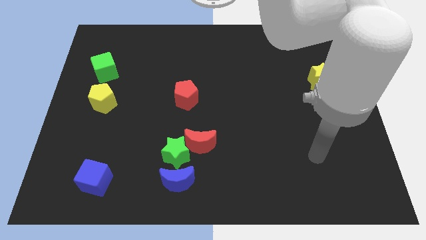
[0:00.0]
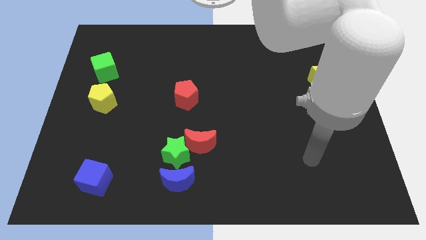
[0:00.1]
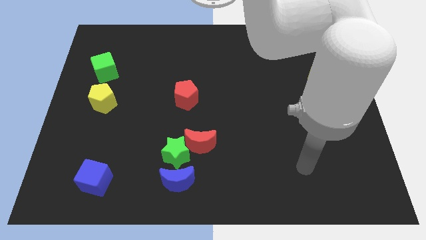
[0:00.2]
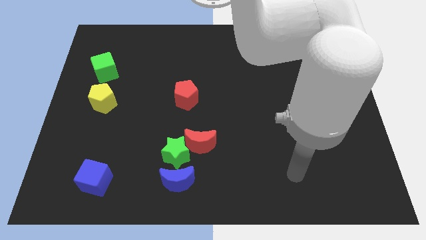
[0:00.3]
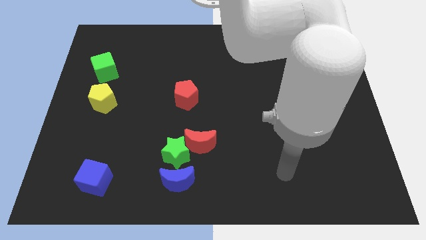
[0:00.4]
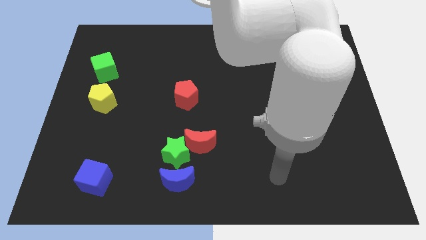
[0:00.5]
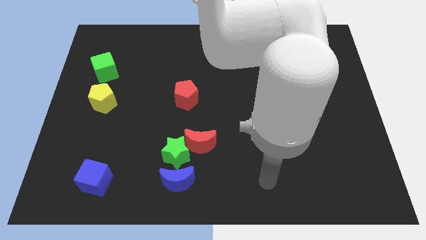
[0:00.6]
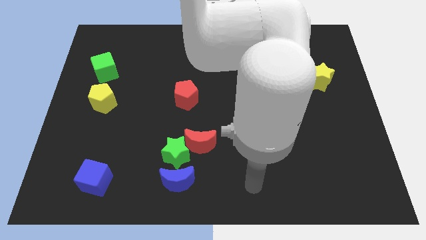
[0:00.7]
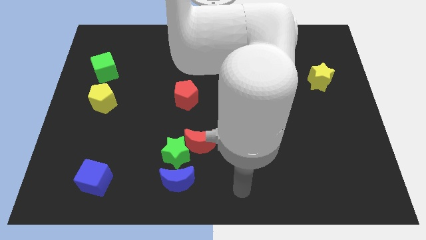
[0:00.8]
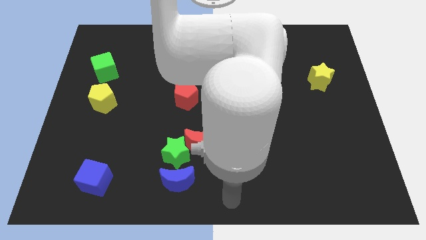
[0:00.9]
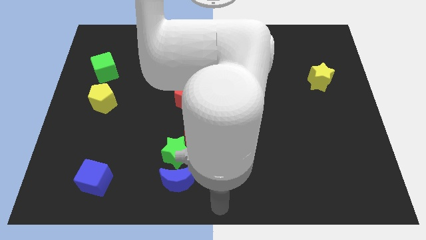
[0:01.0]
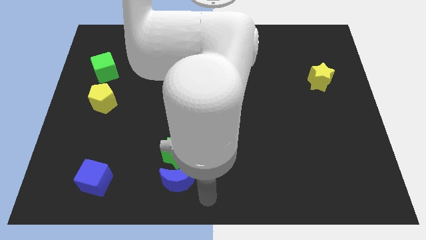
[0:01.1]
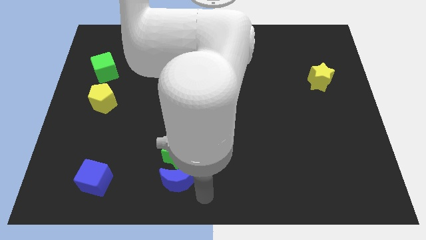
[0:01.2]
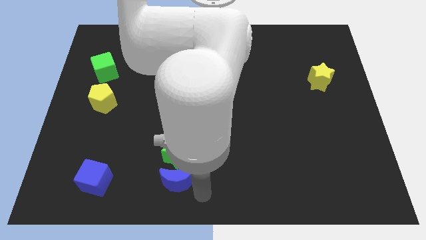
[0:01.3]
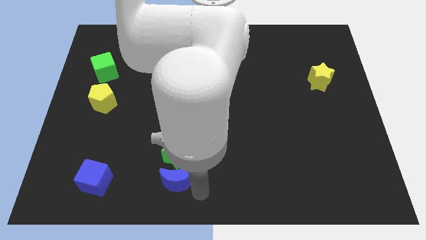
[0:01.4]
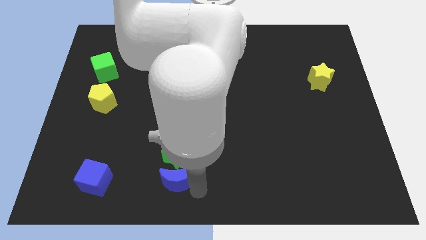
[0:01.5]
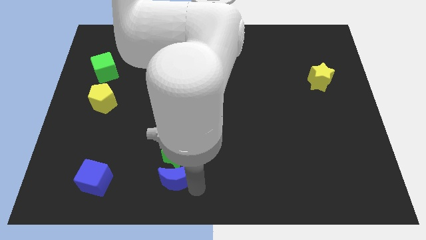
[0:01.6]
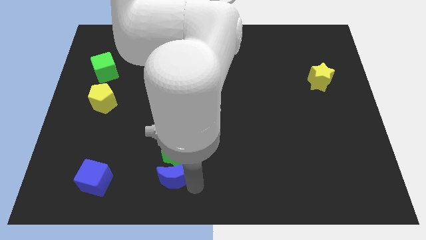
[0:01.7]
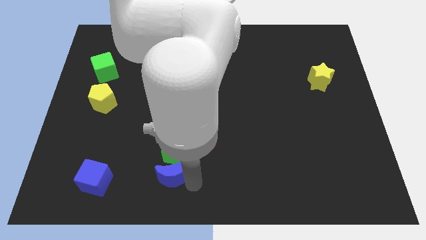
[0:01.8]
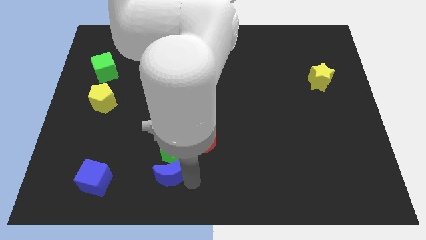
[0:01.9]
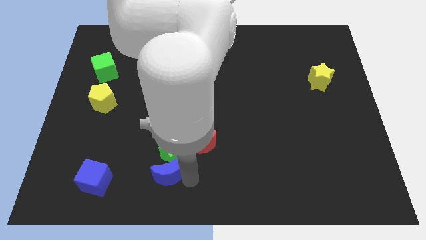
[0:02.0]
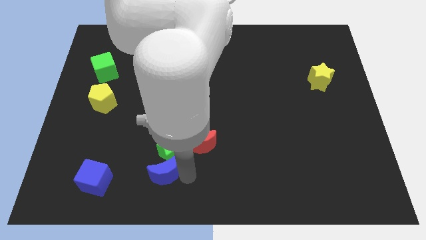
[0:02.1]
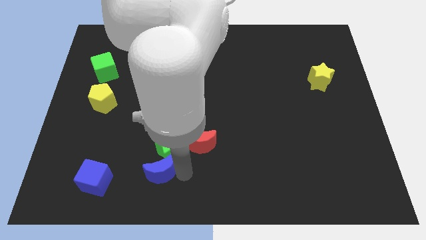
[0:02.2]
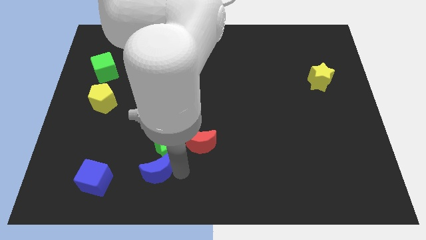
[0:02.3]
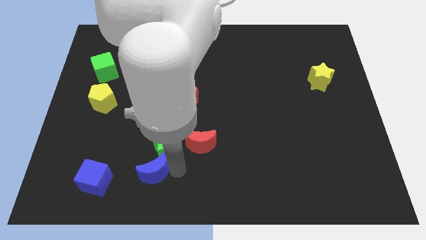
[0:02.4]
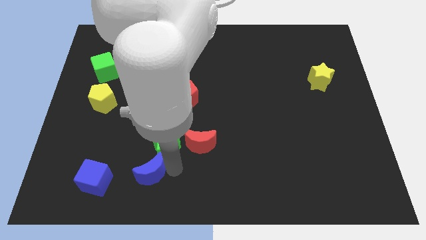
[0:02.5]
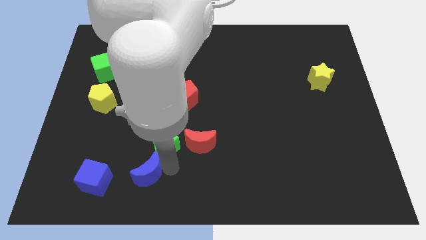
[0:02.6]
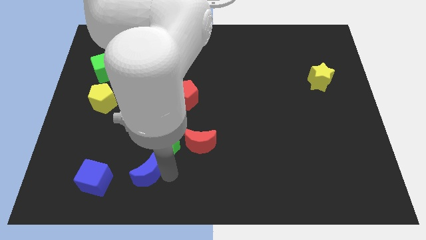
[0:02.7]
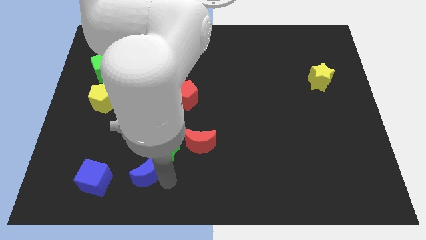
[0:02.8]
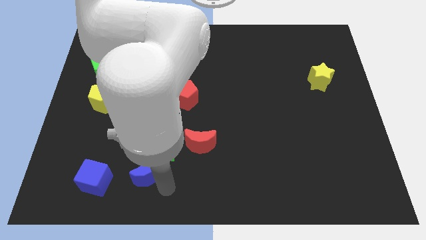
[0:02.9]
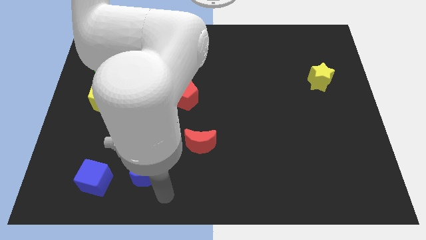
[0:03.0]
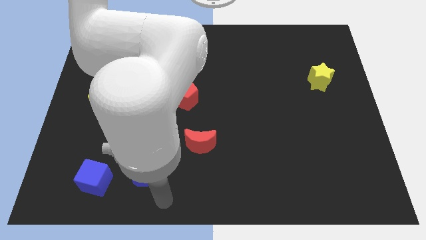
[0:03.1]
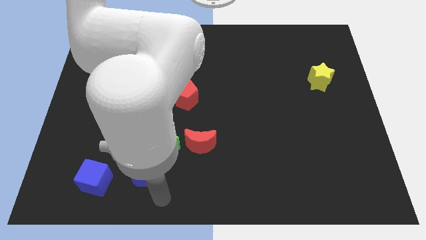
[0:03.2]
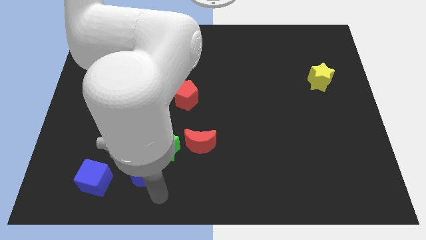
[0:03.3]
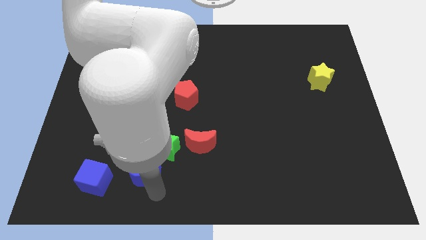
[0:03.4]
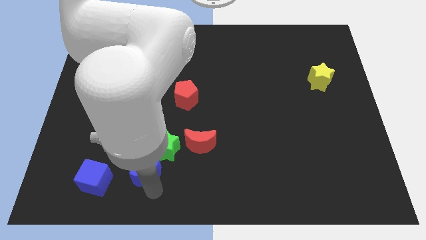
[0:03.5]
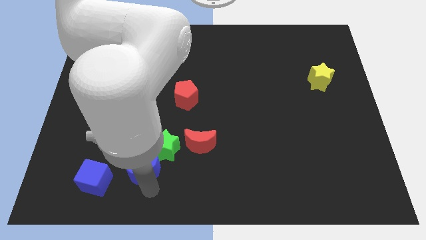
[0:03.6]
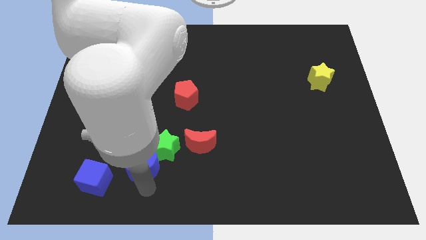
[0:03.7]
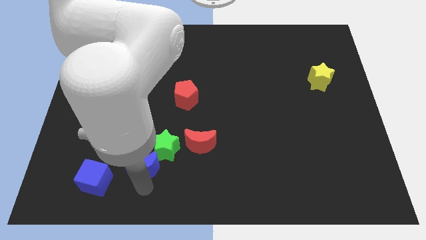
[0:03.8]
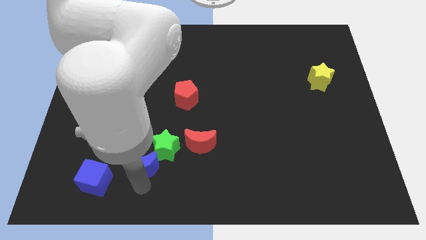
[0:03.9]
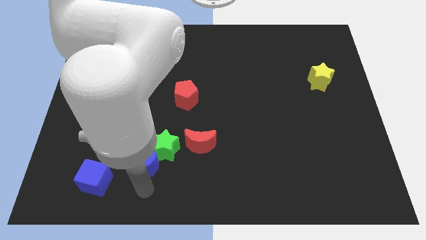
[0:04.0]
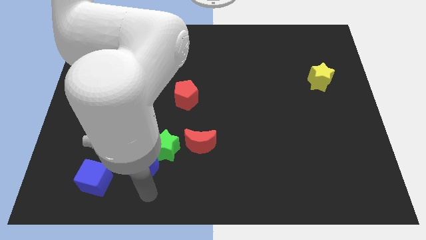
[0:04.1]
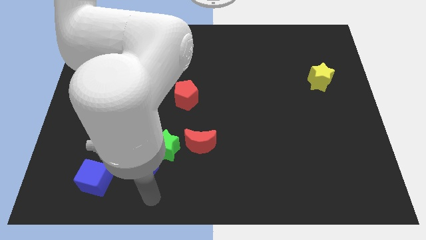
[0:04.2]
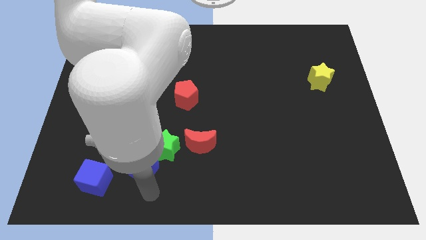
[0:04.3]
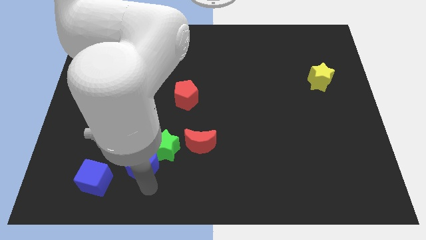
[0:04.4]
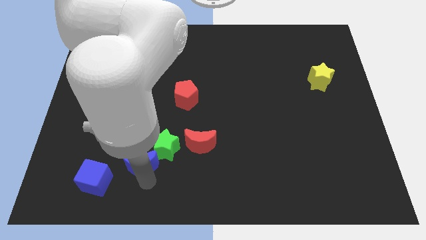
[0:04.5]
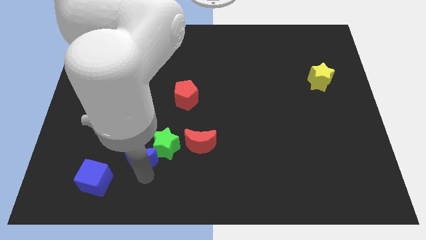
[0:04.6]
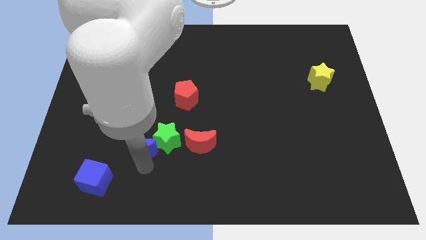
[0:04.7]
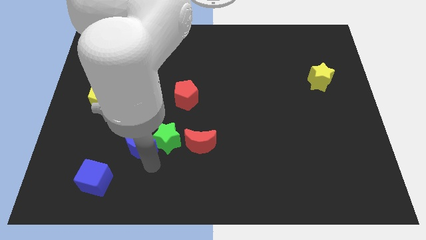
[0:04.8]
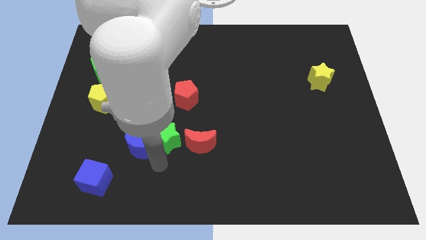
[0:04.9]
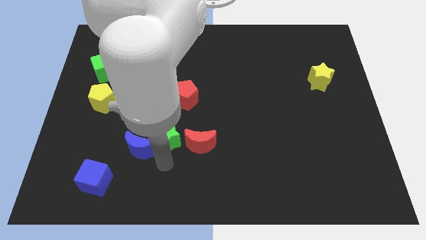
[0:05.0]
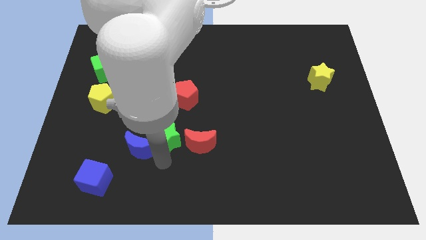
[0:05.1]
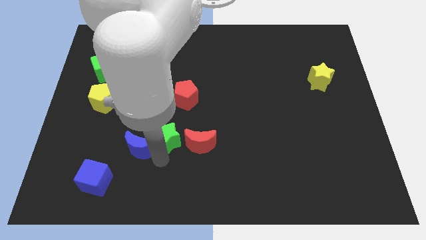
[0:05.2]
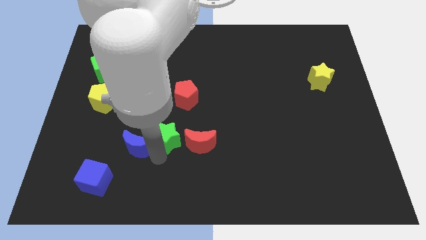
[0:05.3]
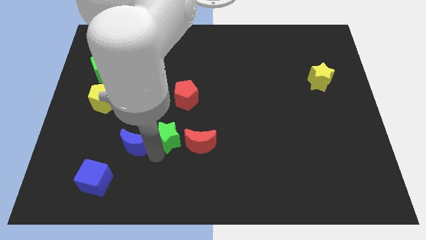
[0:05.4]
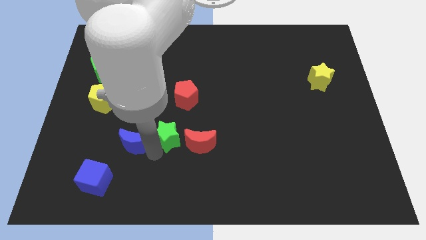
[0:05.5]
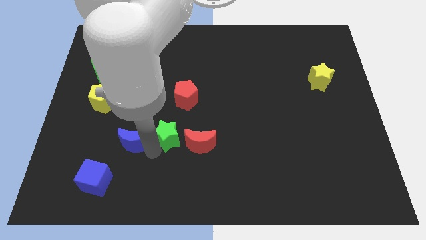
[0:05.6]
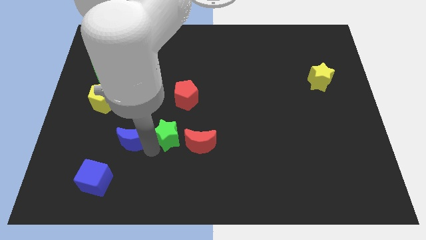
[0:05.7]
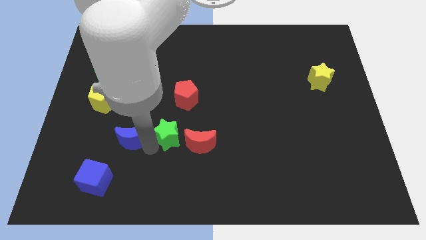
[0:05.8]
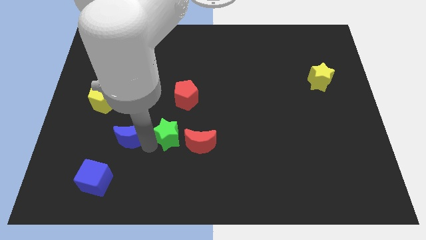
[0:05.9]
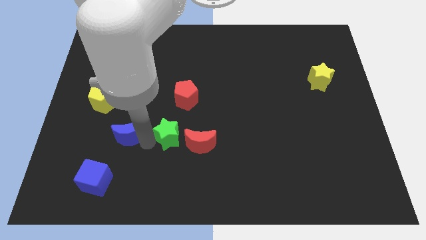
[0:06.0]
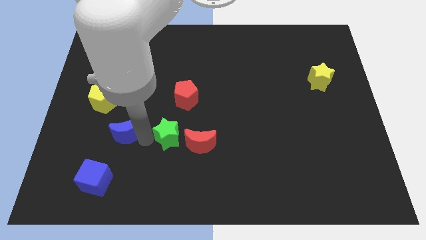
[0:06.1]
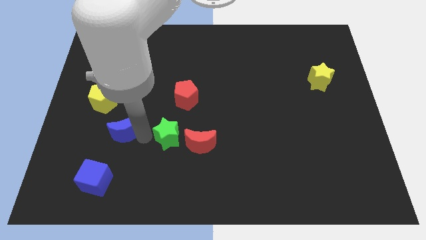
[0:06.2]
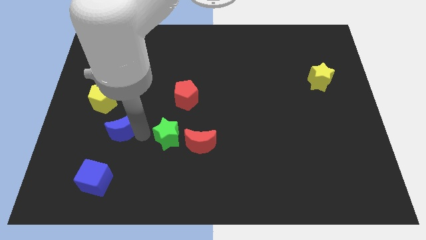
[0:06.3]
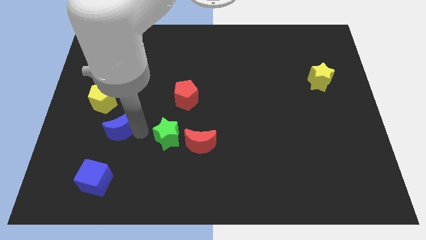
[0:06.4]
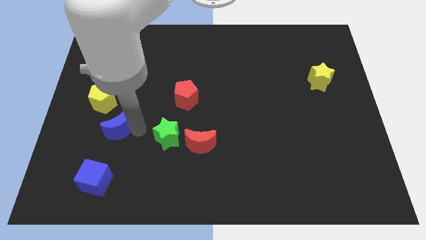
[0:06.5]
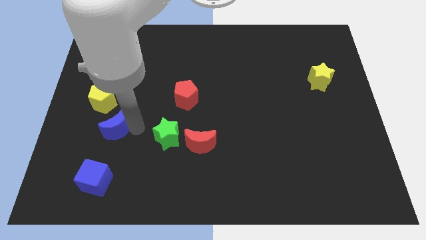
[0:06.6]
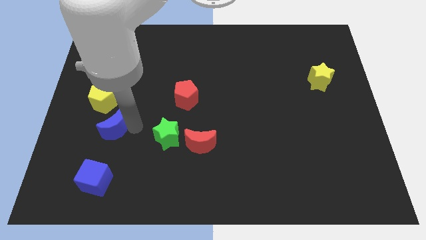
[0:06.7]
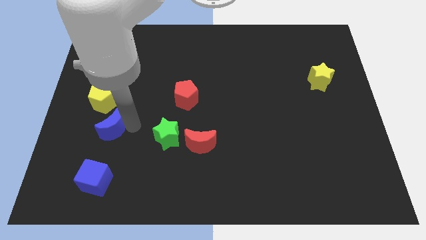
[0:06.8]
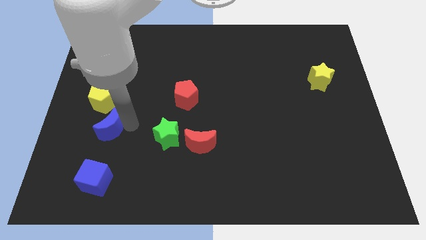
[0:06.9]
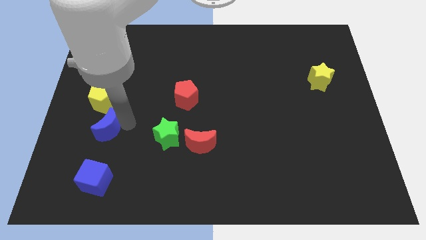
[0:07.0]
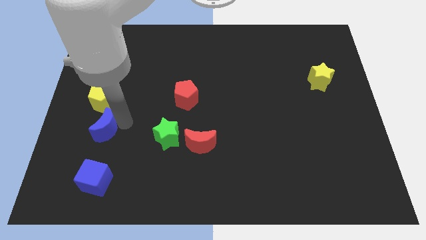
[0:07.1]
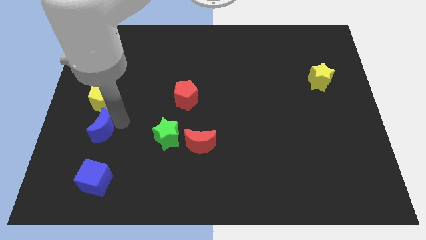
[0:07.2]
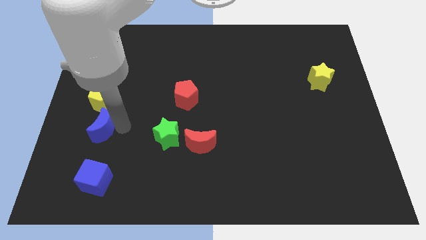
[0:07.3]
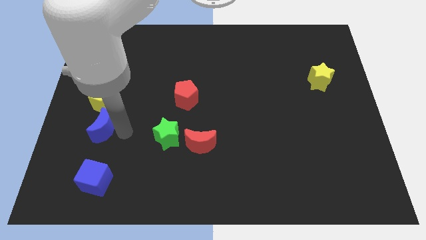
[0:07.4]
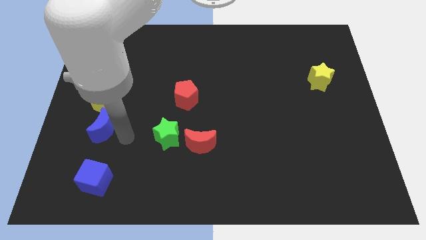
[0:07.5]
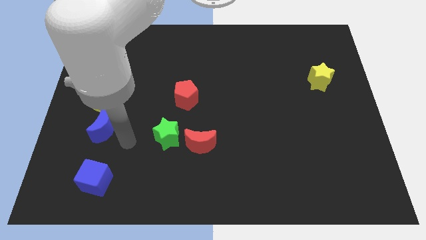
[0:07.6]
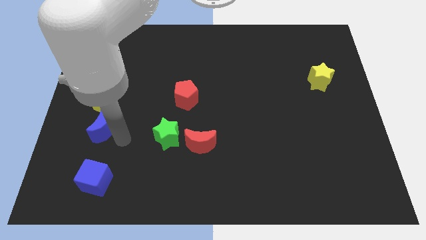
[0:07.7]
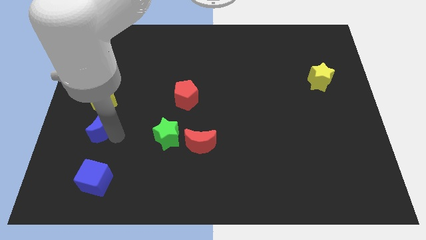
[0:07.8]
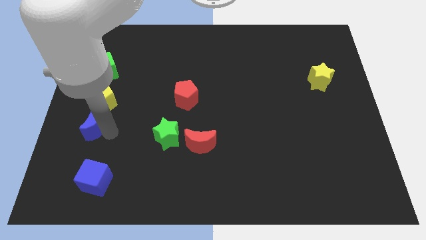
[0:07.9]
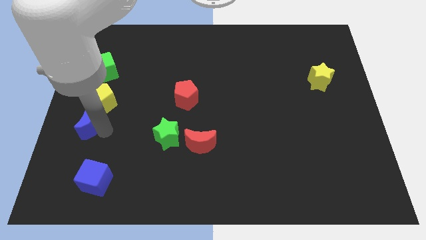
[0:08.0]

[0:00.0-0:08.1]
push the blue moon to the center left

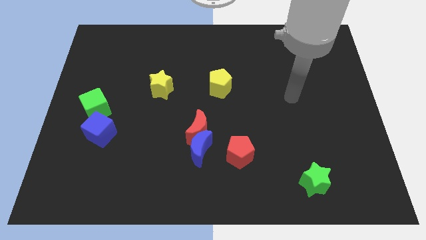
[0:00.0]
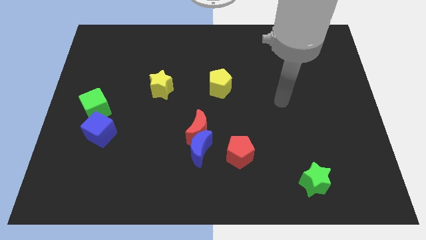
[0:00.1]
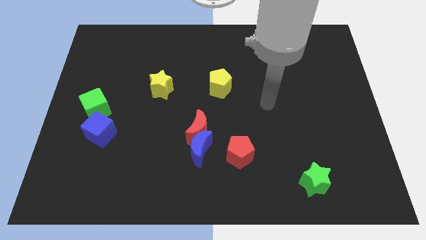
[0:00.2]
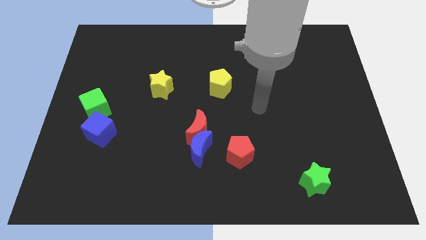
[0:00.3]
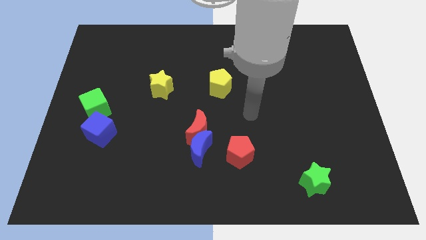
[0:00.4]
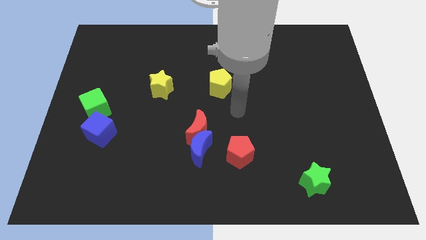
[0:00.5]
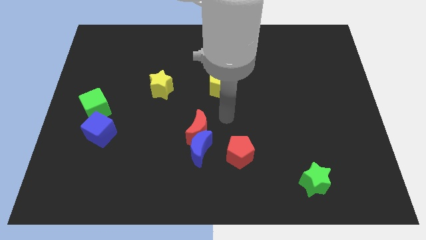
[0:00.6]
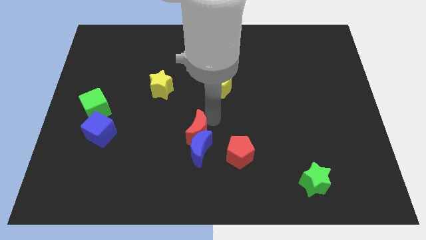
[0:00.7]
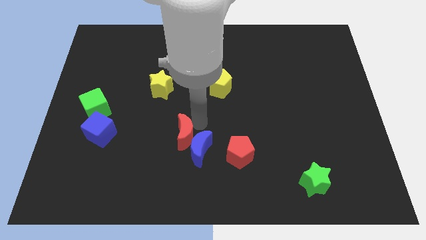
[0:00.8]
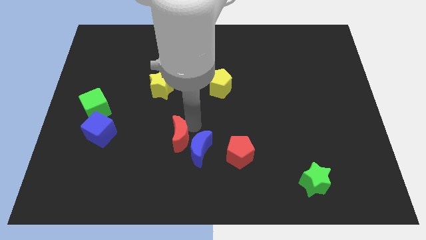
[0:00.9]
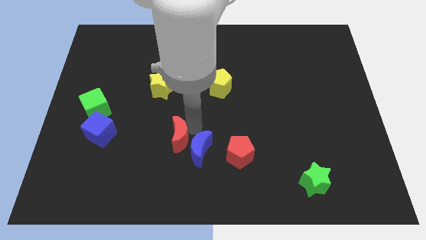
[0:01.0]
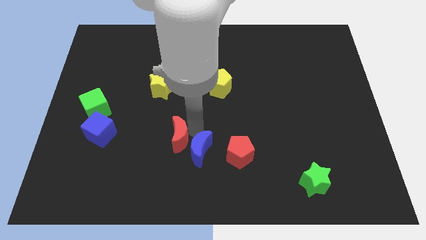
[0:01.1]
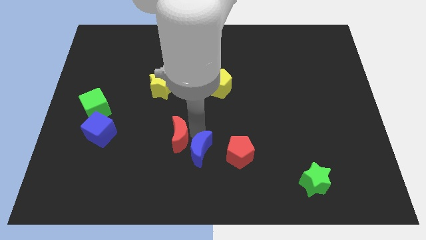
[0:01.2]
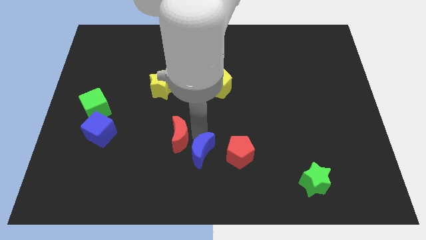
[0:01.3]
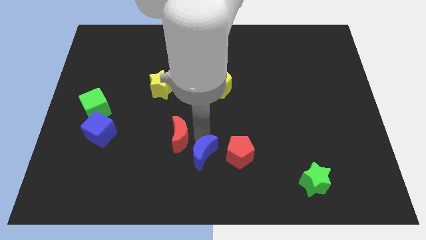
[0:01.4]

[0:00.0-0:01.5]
put the blue moon to the bottom
